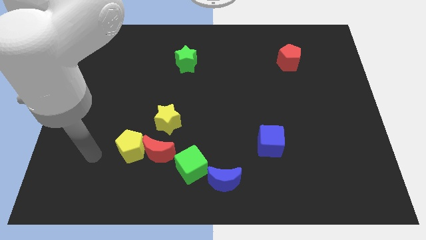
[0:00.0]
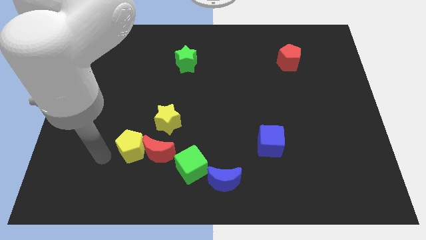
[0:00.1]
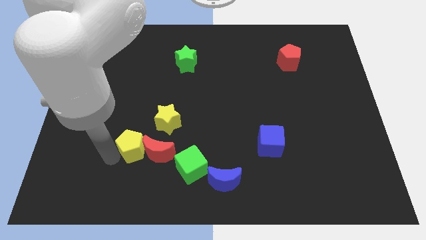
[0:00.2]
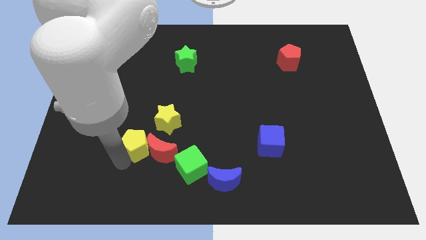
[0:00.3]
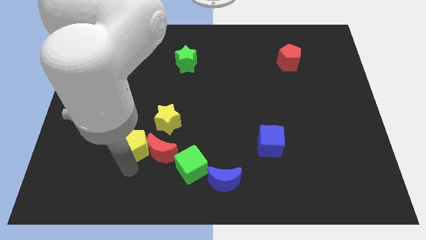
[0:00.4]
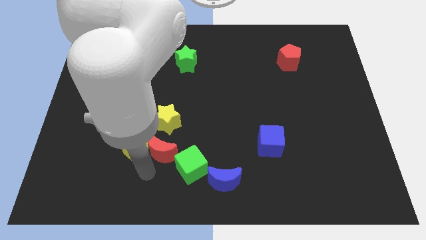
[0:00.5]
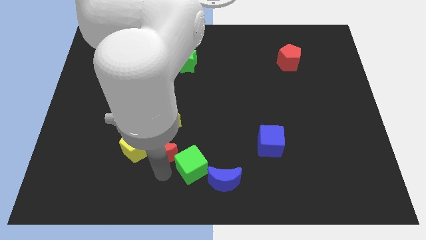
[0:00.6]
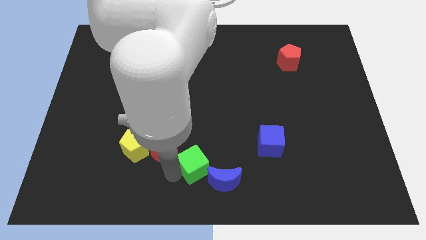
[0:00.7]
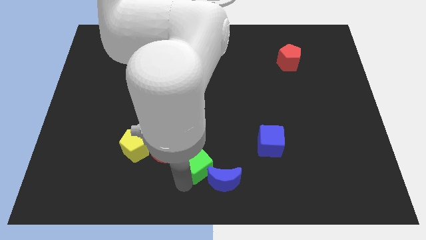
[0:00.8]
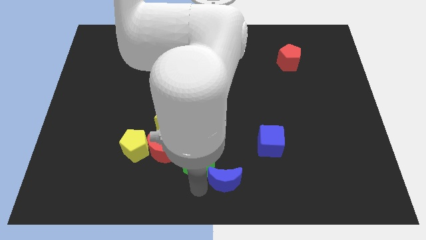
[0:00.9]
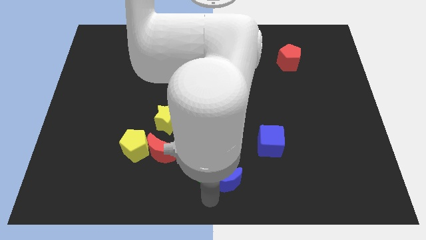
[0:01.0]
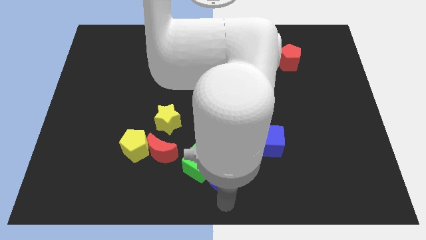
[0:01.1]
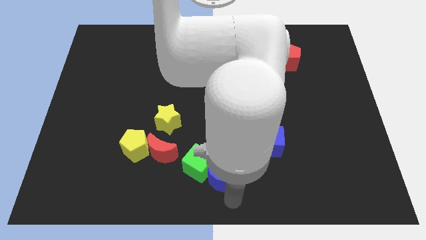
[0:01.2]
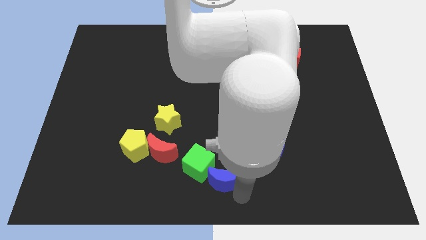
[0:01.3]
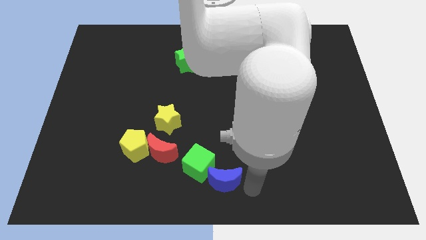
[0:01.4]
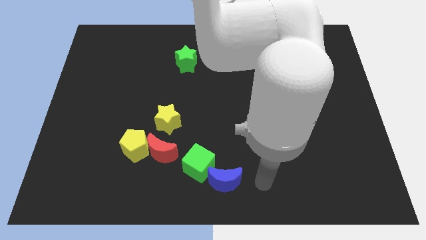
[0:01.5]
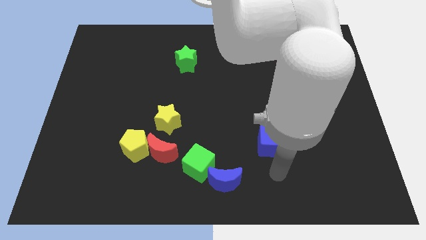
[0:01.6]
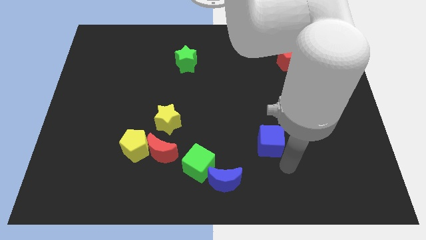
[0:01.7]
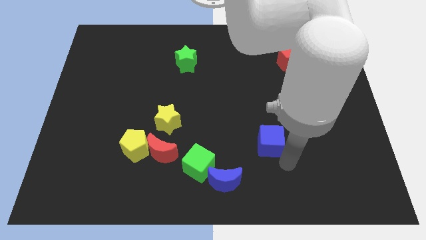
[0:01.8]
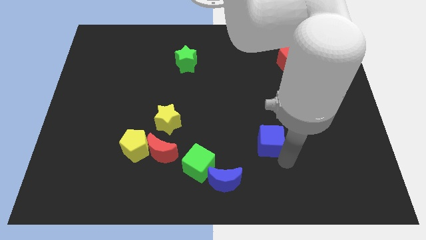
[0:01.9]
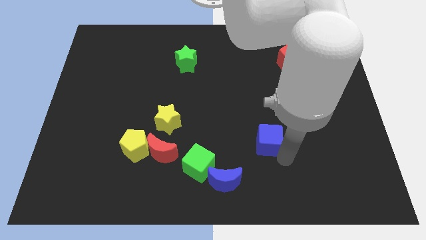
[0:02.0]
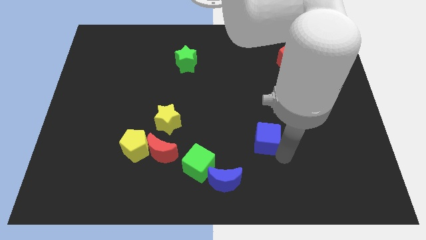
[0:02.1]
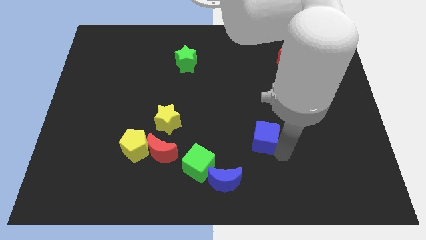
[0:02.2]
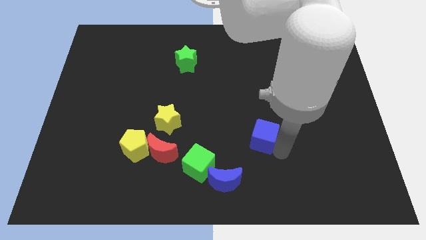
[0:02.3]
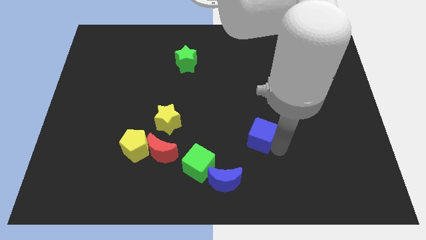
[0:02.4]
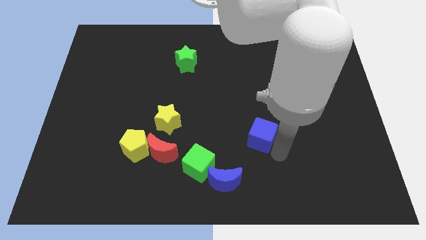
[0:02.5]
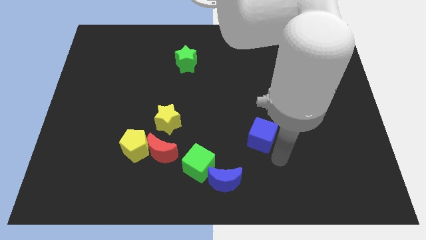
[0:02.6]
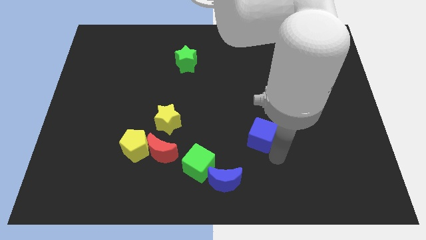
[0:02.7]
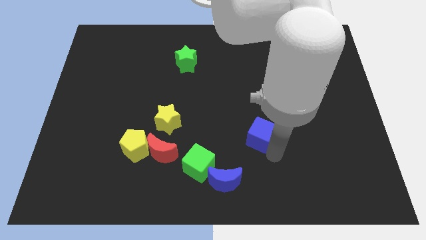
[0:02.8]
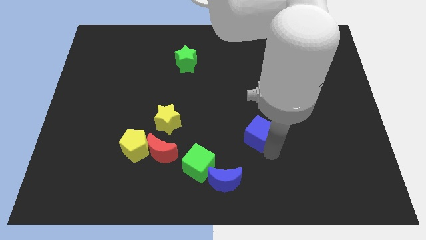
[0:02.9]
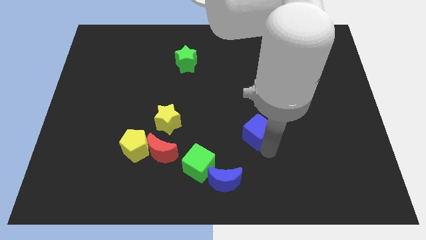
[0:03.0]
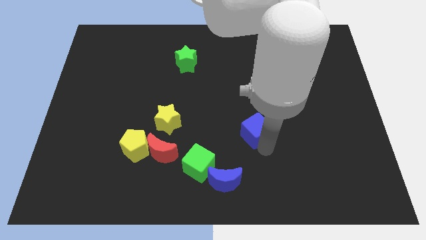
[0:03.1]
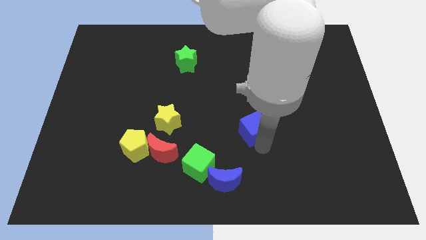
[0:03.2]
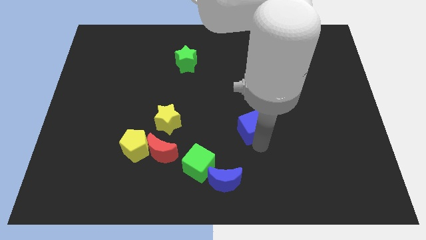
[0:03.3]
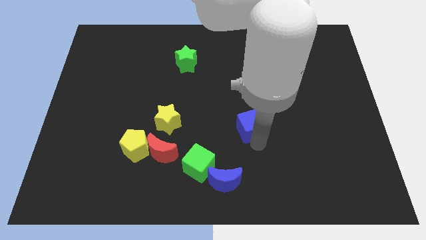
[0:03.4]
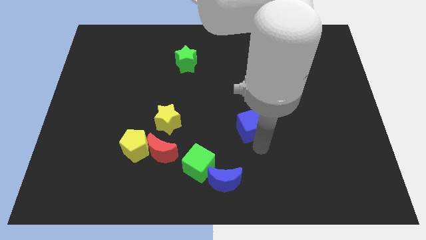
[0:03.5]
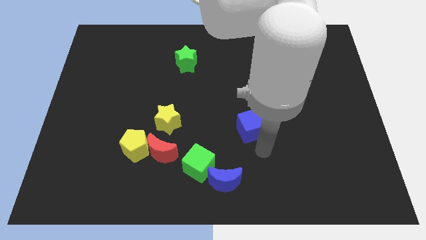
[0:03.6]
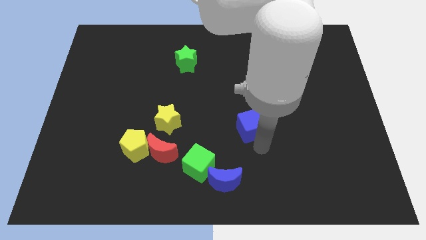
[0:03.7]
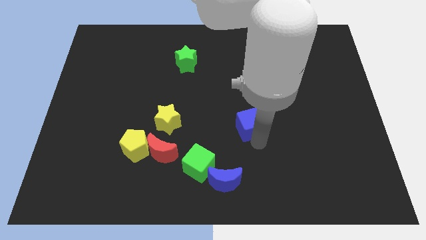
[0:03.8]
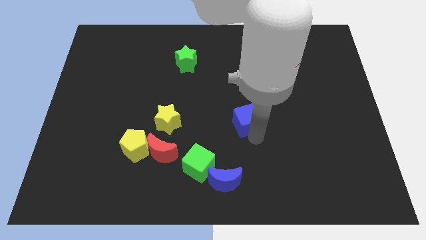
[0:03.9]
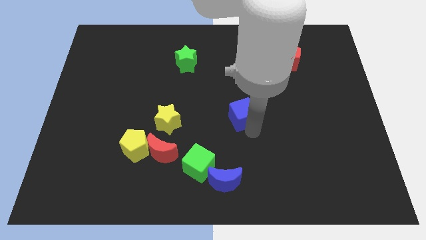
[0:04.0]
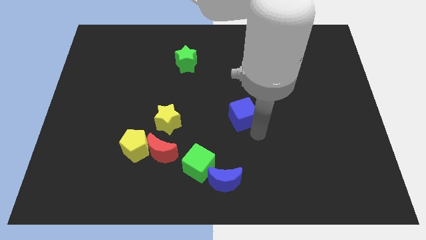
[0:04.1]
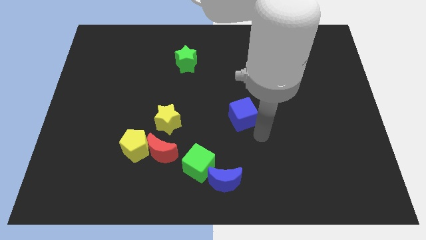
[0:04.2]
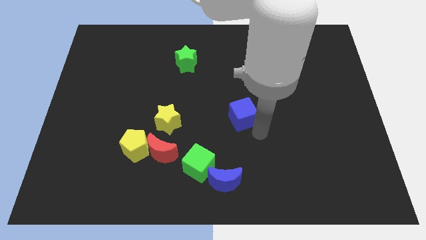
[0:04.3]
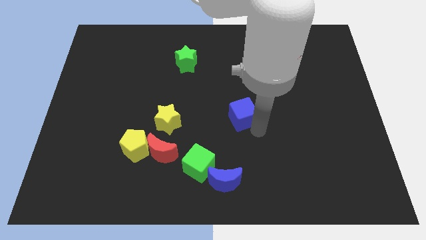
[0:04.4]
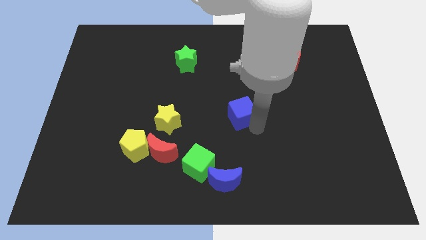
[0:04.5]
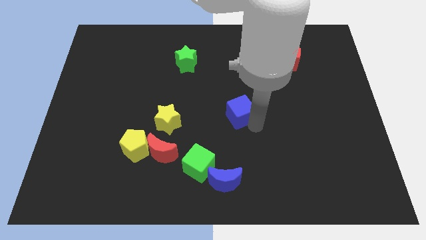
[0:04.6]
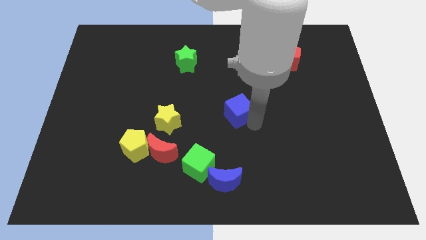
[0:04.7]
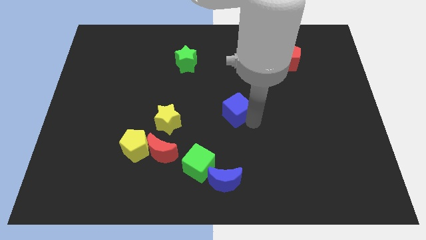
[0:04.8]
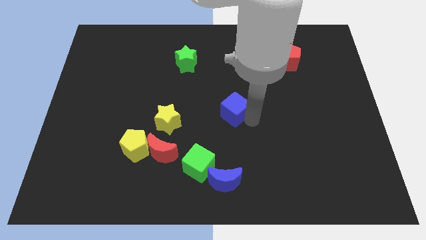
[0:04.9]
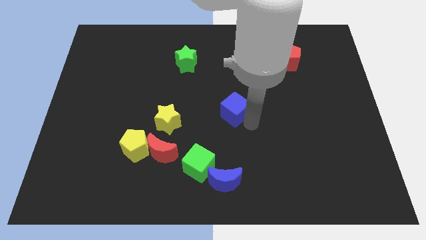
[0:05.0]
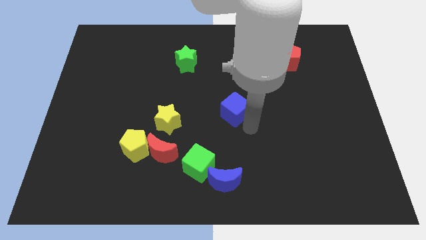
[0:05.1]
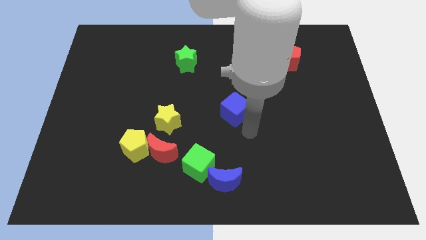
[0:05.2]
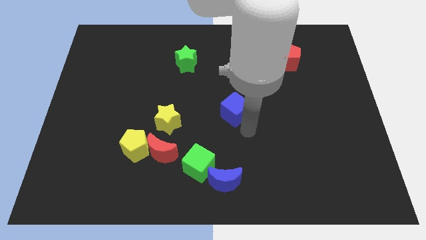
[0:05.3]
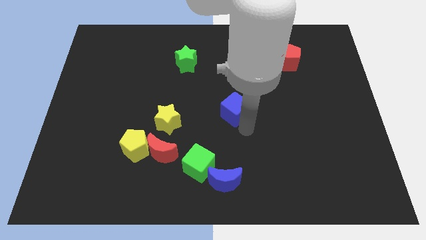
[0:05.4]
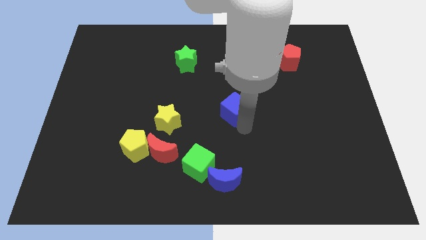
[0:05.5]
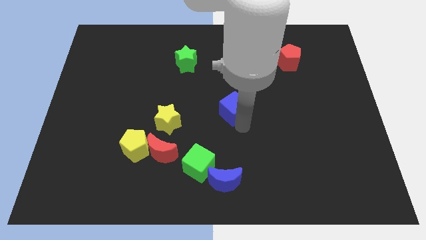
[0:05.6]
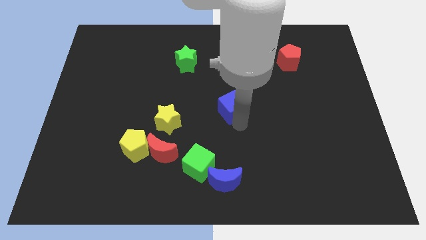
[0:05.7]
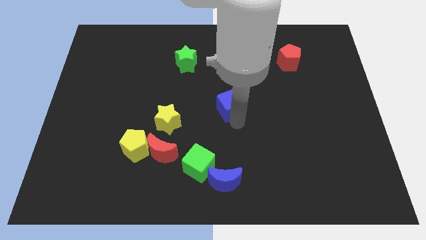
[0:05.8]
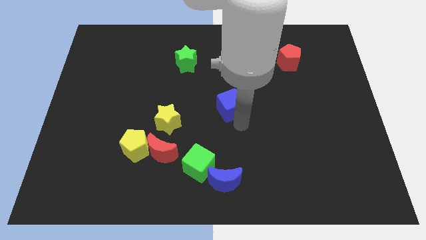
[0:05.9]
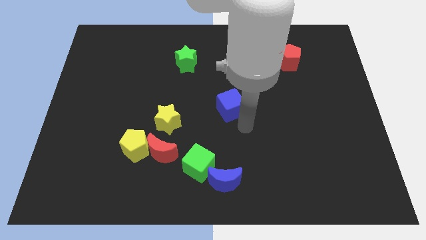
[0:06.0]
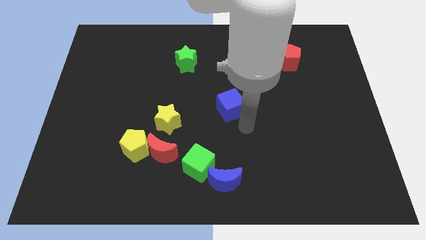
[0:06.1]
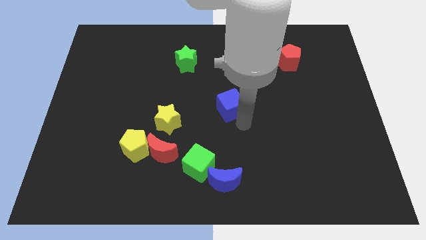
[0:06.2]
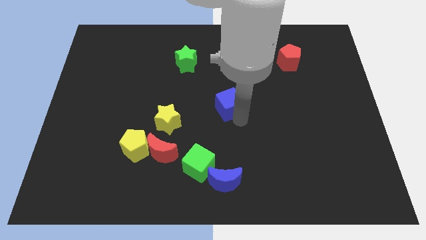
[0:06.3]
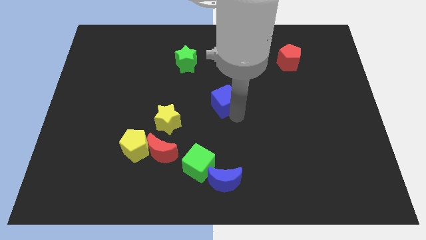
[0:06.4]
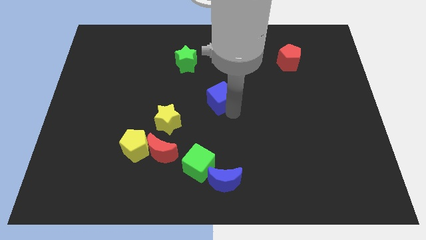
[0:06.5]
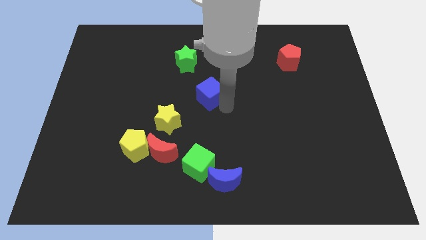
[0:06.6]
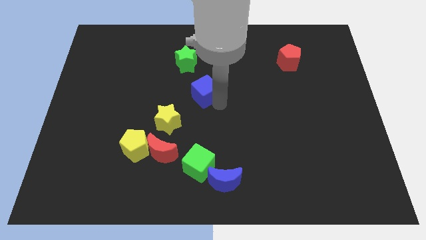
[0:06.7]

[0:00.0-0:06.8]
slide the blue cube to the bottom right side of the green star

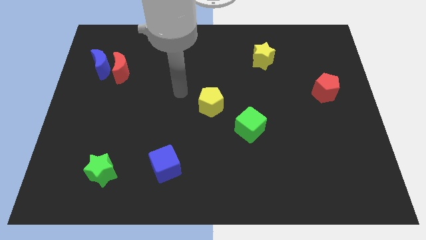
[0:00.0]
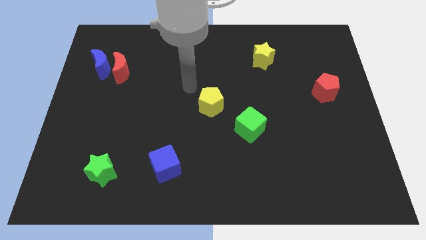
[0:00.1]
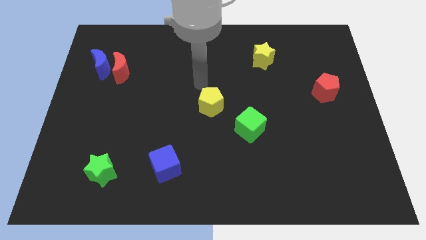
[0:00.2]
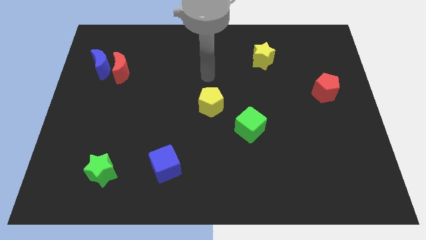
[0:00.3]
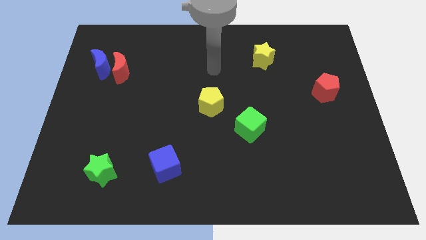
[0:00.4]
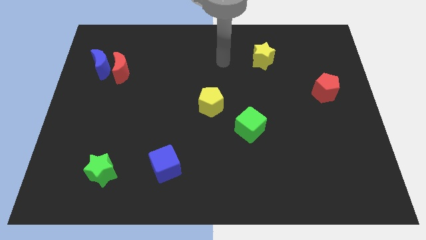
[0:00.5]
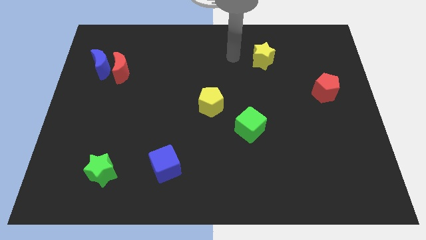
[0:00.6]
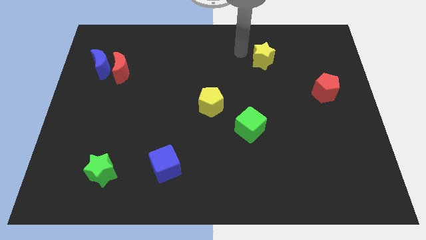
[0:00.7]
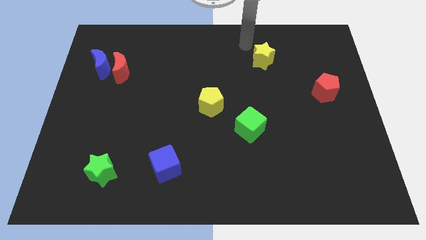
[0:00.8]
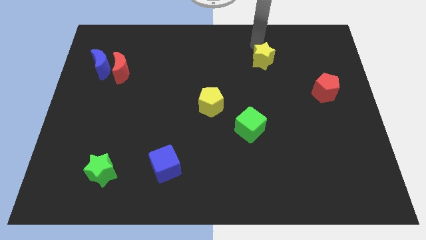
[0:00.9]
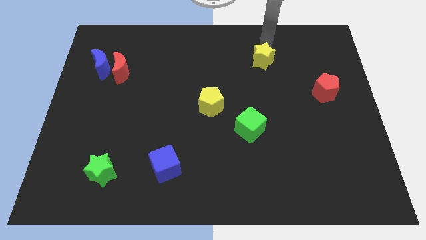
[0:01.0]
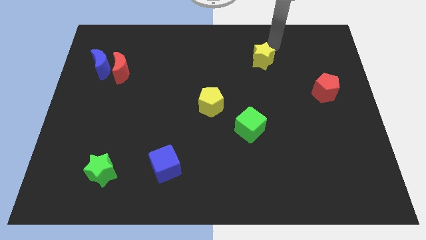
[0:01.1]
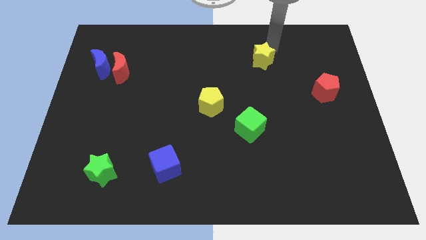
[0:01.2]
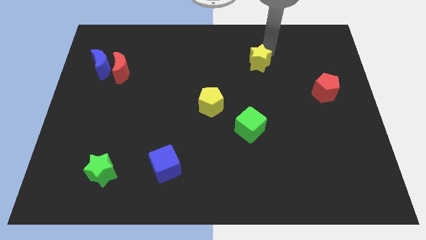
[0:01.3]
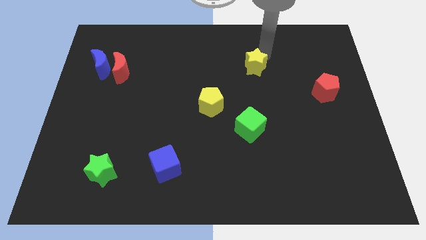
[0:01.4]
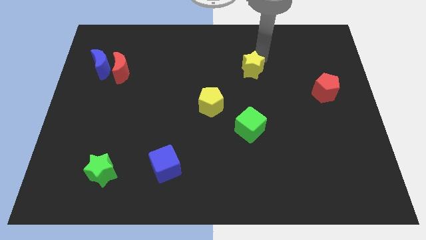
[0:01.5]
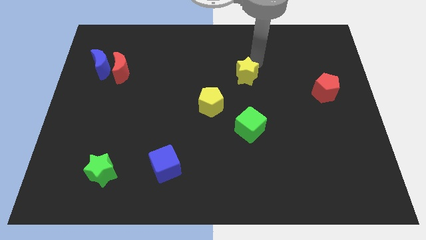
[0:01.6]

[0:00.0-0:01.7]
push the yellow star to the top right side of the yellow pentagon
